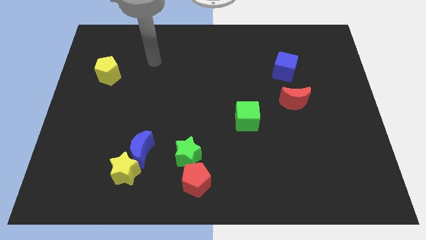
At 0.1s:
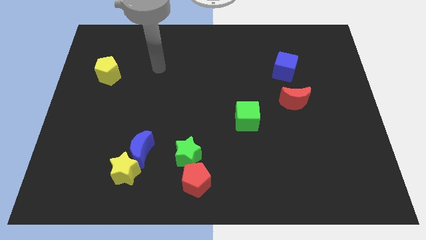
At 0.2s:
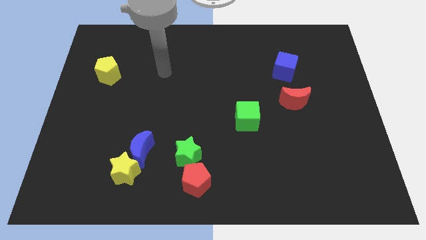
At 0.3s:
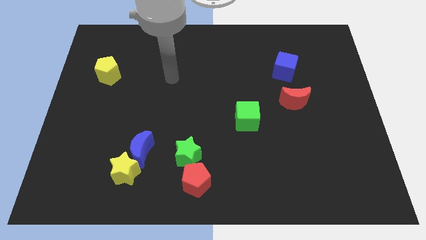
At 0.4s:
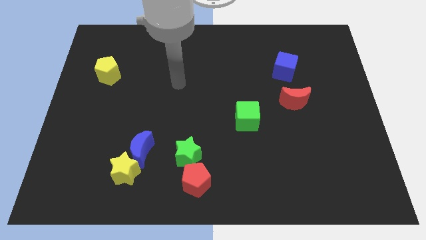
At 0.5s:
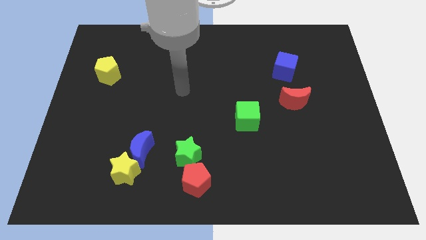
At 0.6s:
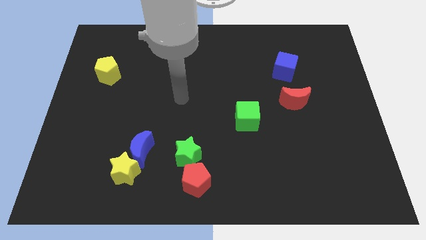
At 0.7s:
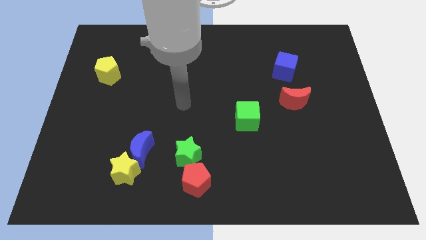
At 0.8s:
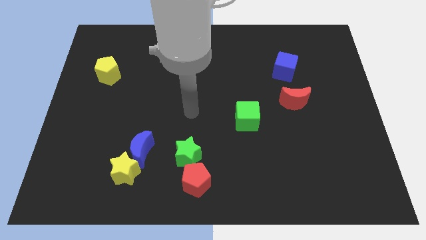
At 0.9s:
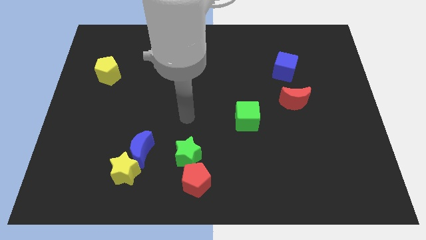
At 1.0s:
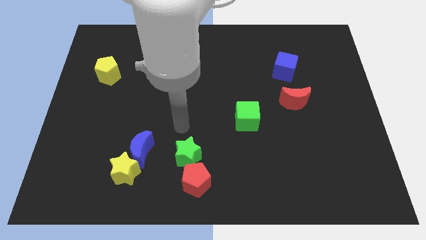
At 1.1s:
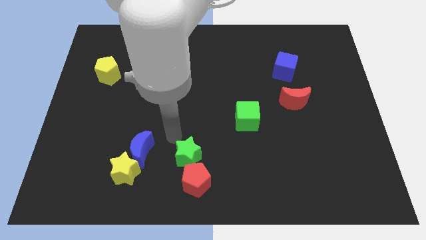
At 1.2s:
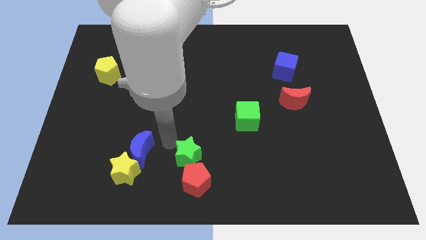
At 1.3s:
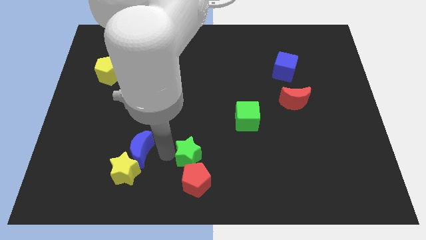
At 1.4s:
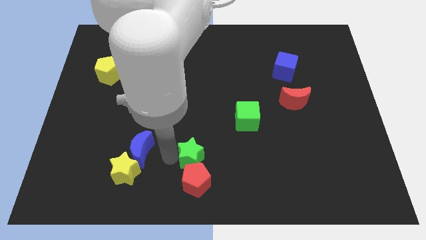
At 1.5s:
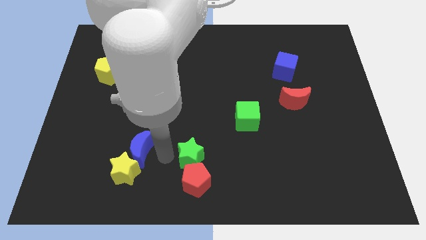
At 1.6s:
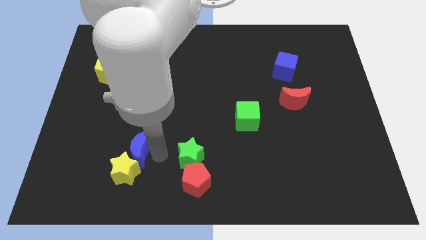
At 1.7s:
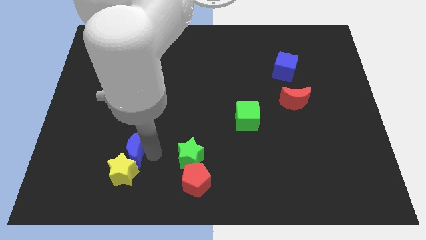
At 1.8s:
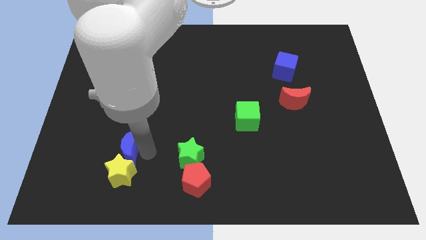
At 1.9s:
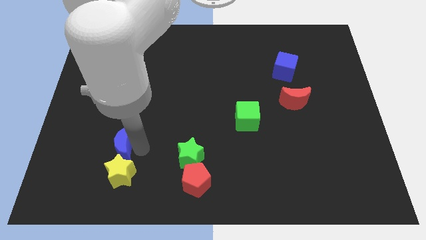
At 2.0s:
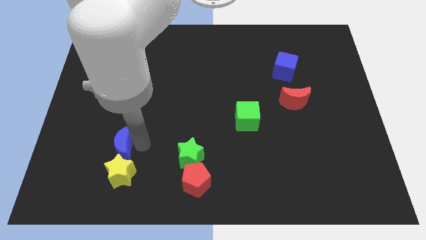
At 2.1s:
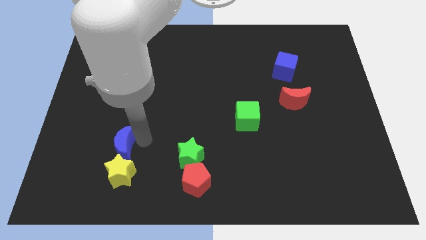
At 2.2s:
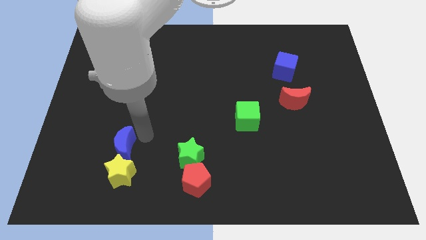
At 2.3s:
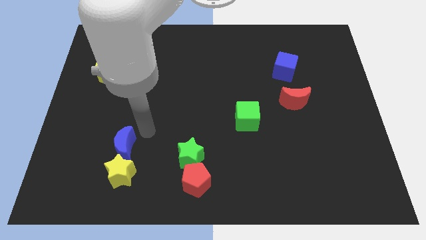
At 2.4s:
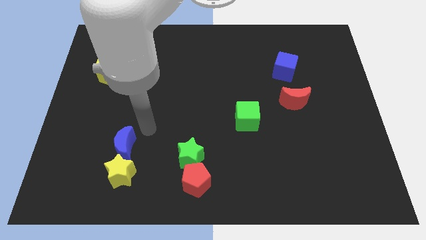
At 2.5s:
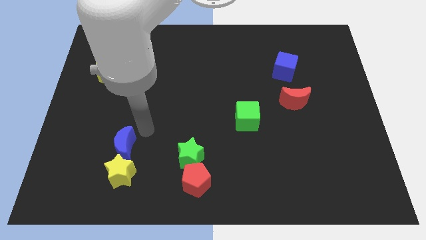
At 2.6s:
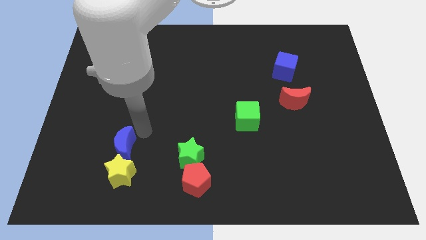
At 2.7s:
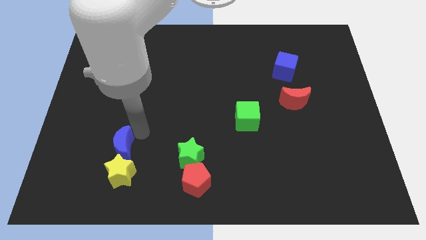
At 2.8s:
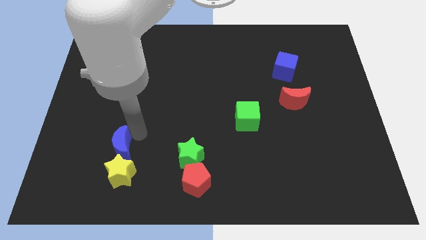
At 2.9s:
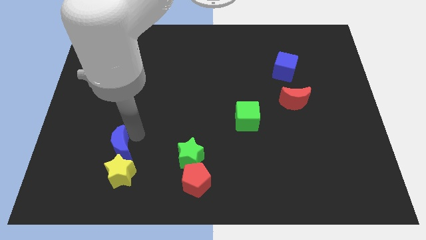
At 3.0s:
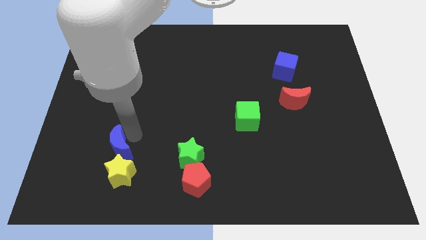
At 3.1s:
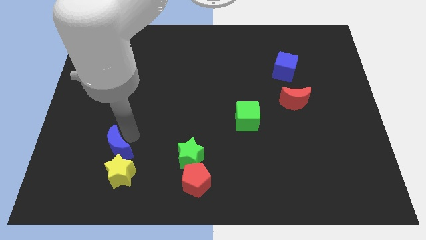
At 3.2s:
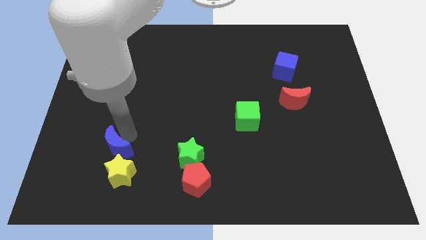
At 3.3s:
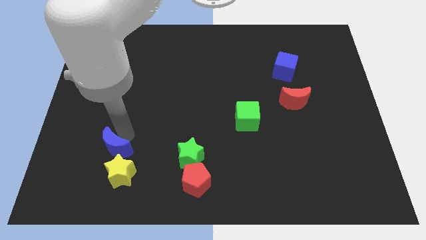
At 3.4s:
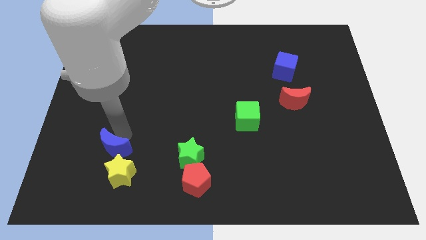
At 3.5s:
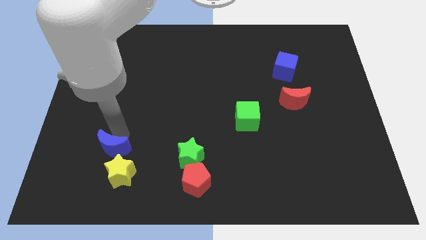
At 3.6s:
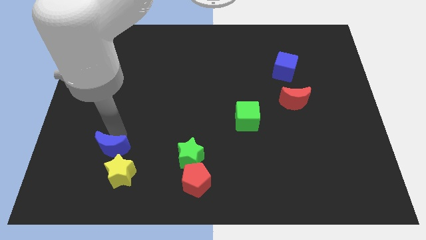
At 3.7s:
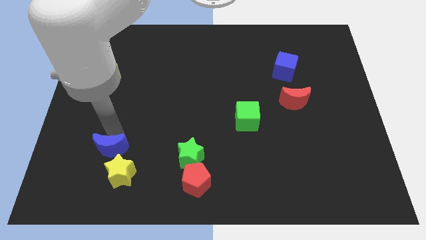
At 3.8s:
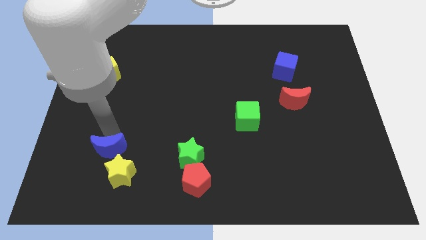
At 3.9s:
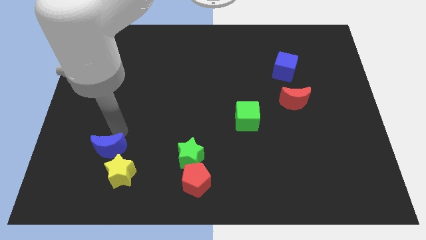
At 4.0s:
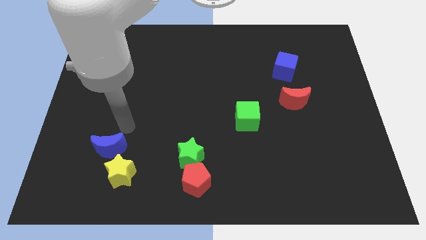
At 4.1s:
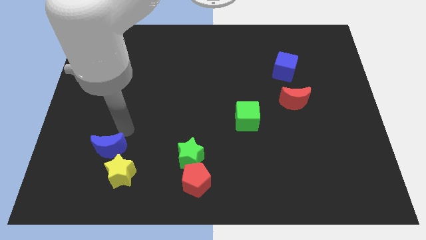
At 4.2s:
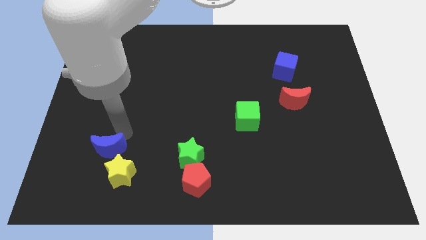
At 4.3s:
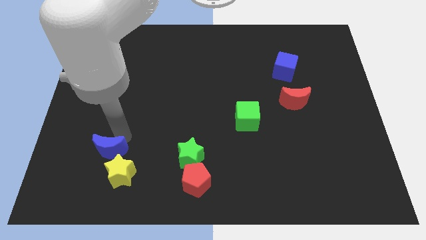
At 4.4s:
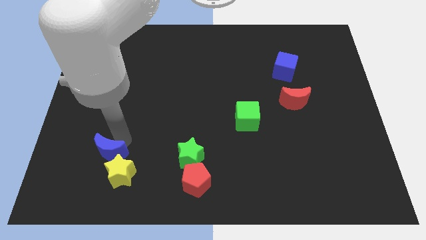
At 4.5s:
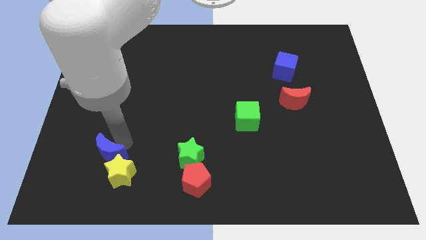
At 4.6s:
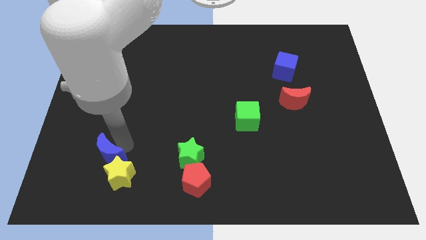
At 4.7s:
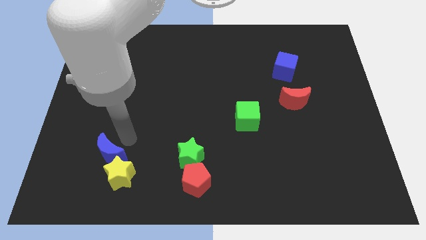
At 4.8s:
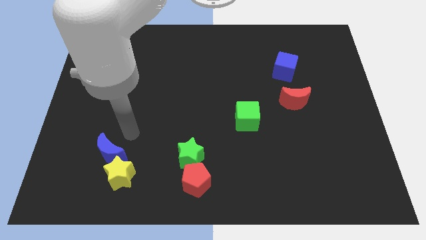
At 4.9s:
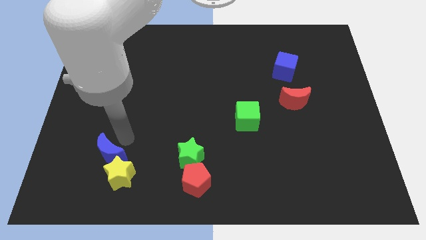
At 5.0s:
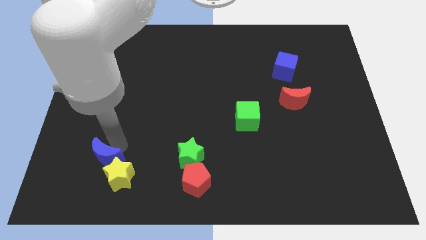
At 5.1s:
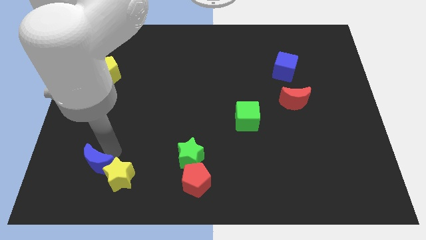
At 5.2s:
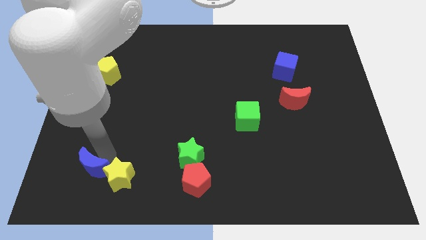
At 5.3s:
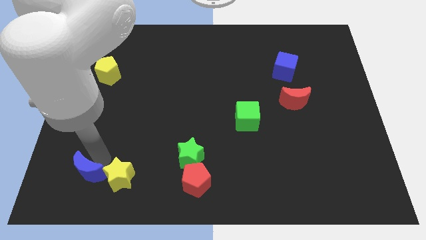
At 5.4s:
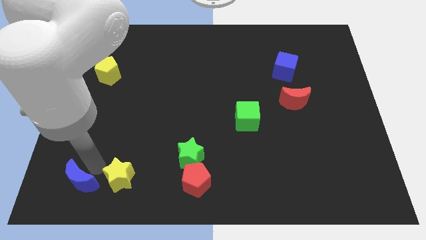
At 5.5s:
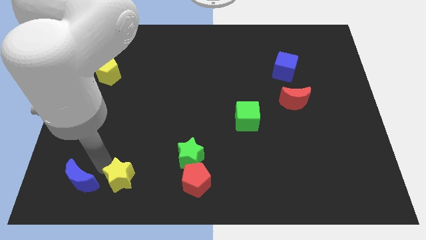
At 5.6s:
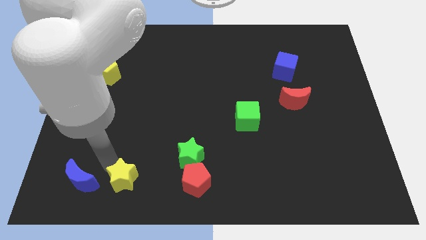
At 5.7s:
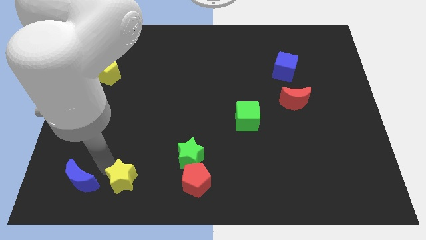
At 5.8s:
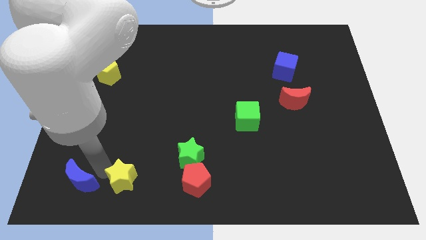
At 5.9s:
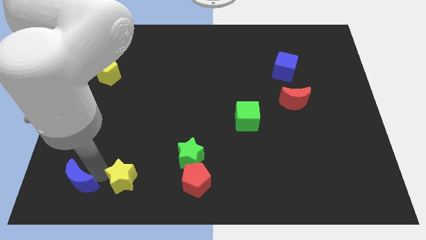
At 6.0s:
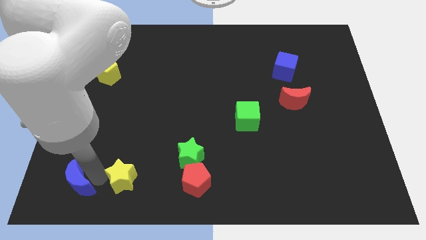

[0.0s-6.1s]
slide the blue moon to the bottom left corner

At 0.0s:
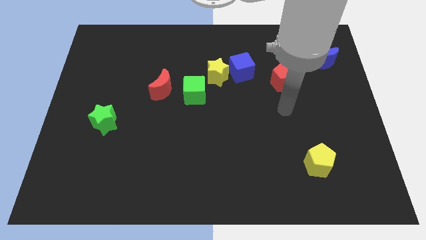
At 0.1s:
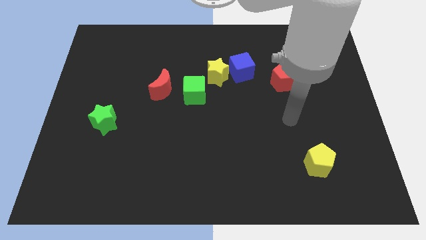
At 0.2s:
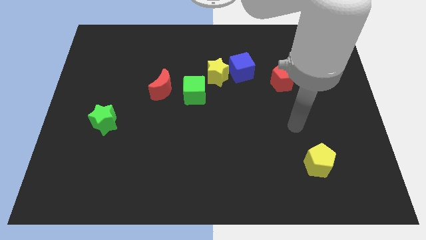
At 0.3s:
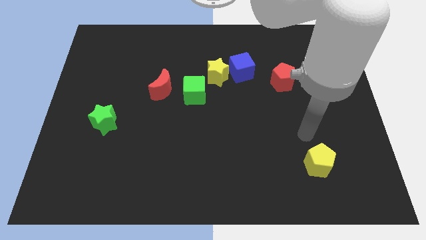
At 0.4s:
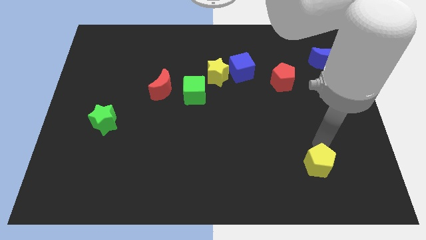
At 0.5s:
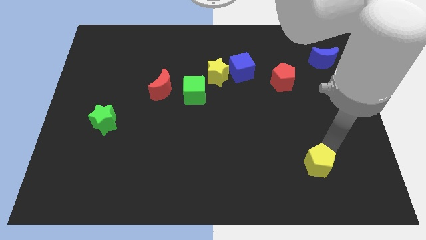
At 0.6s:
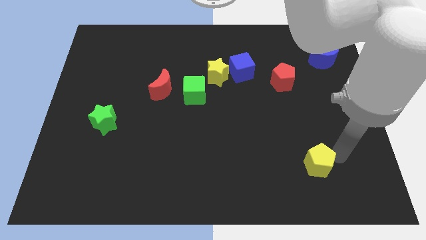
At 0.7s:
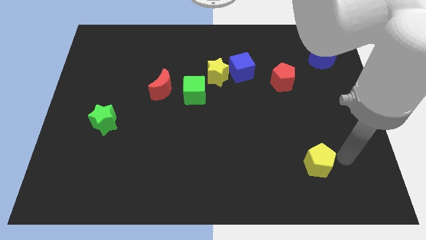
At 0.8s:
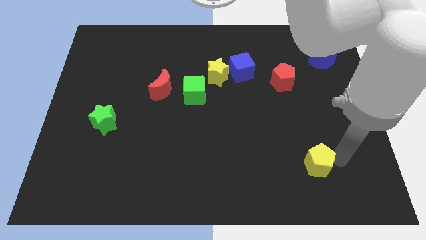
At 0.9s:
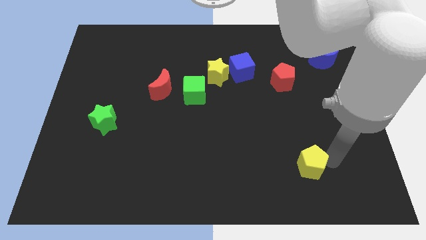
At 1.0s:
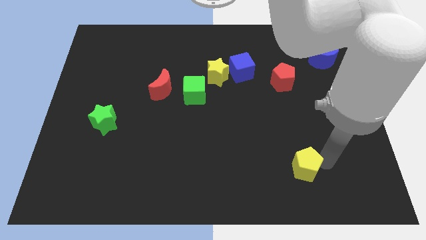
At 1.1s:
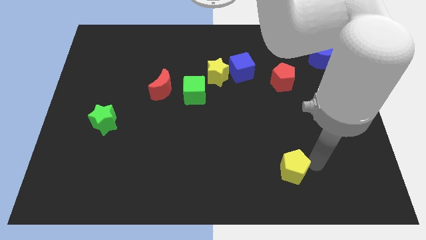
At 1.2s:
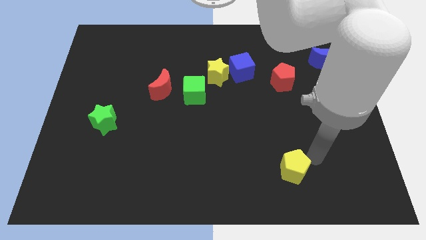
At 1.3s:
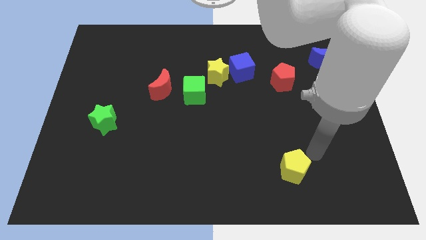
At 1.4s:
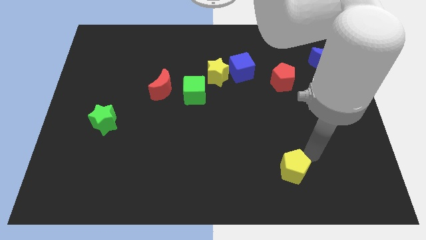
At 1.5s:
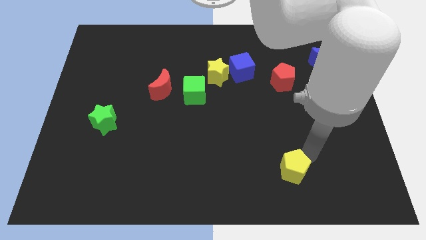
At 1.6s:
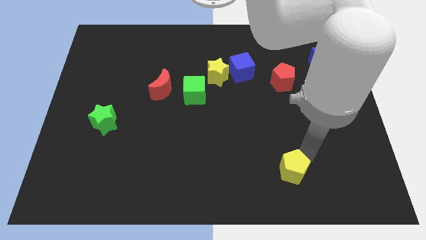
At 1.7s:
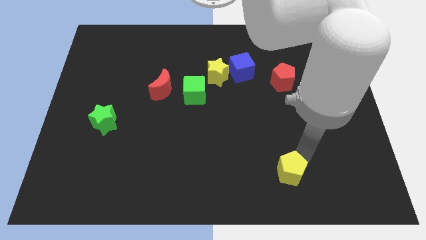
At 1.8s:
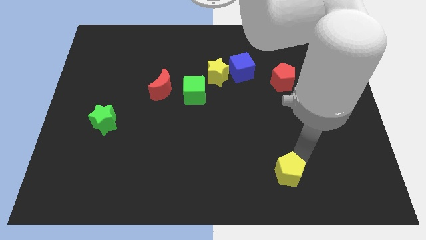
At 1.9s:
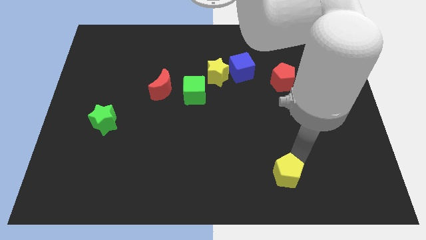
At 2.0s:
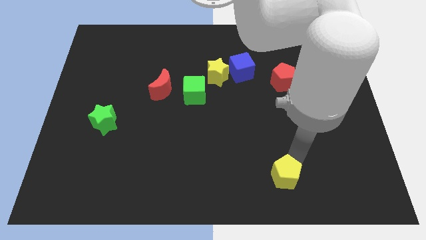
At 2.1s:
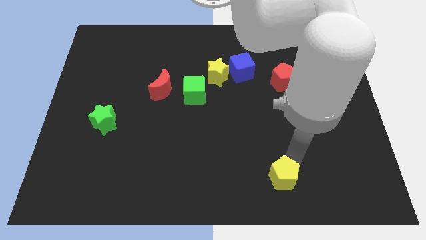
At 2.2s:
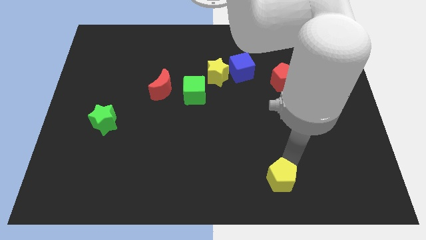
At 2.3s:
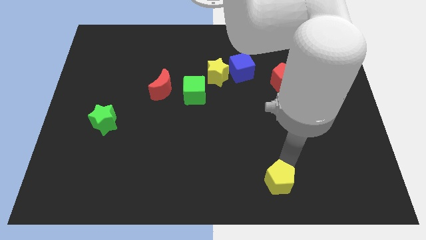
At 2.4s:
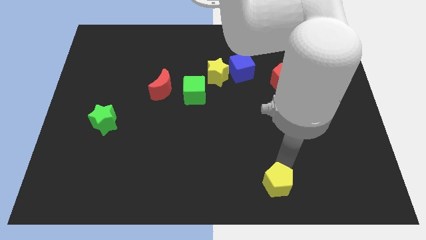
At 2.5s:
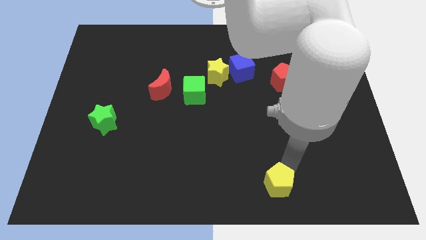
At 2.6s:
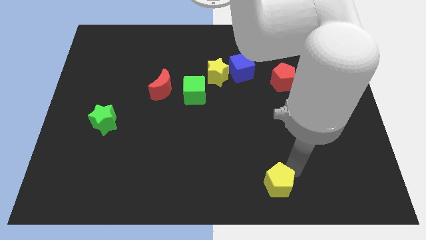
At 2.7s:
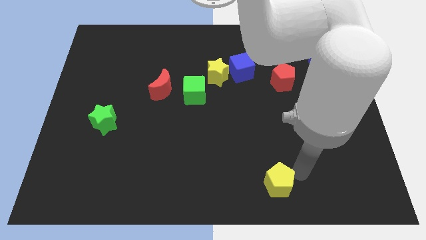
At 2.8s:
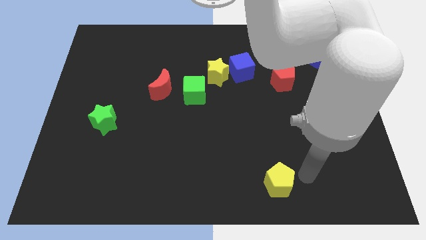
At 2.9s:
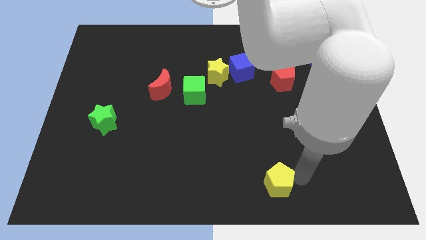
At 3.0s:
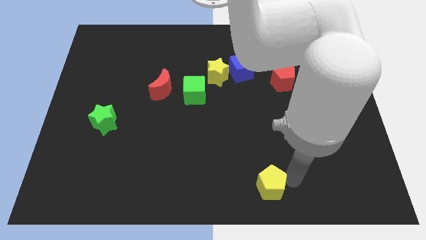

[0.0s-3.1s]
put the yellow pentagon to the bottom side
